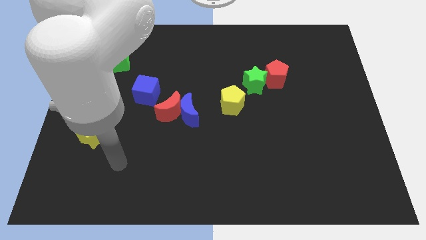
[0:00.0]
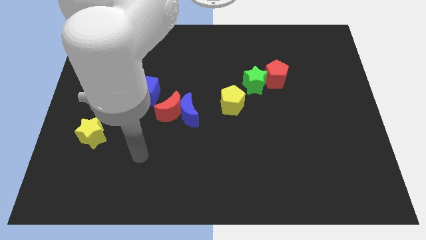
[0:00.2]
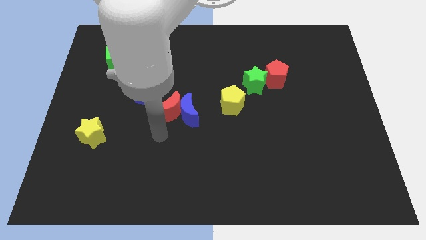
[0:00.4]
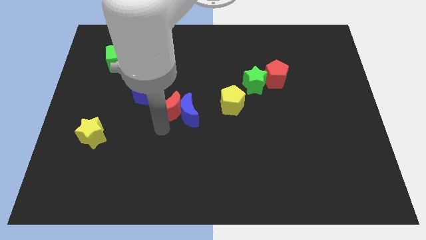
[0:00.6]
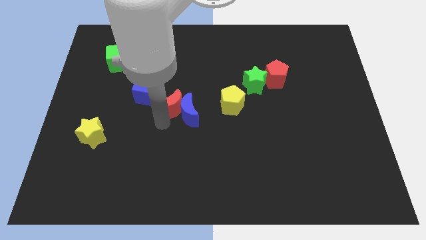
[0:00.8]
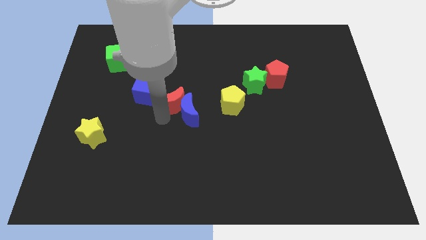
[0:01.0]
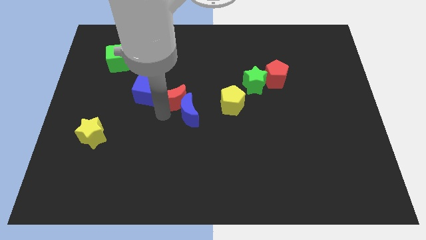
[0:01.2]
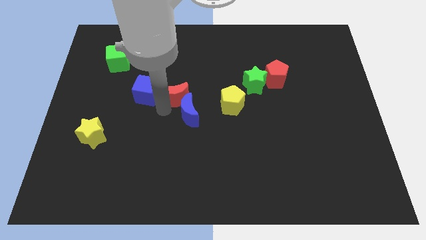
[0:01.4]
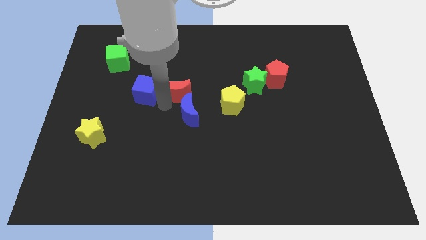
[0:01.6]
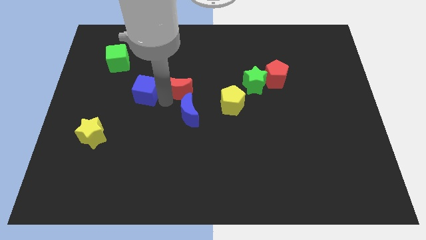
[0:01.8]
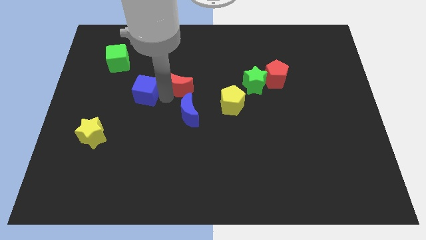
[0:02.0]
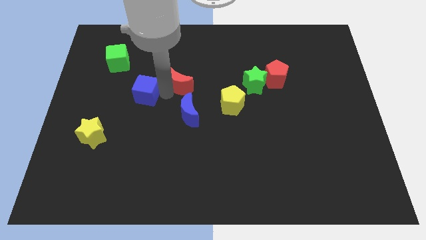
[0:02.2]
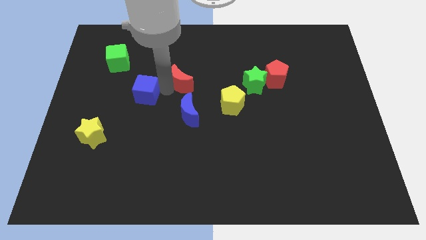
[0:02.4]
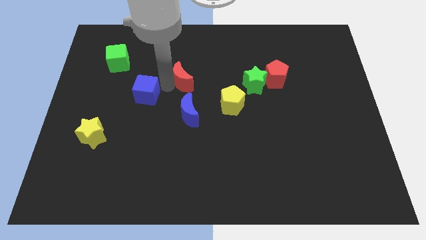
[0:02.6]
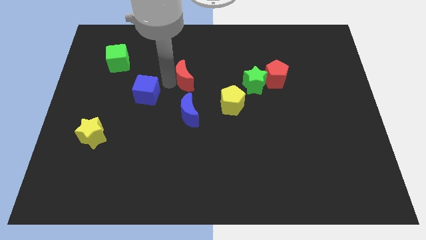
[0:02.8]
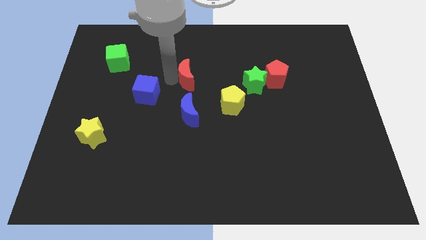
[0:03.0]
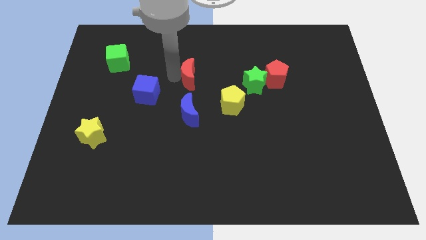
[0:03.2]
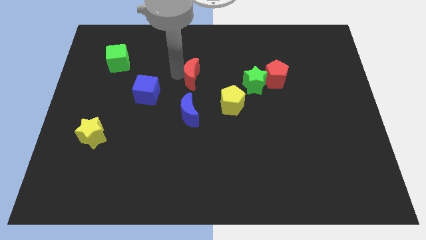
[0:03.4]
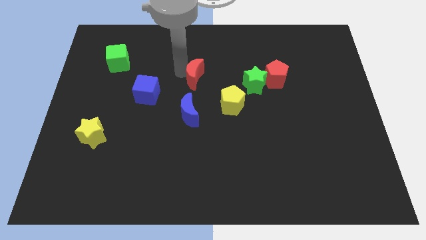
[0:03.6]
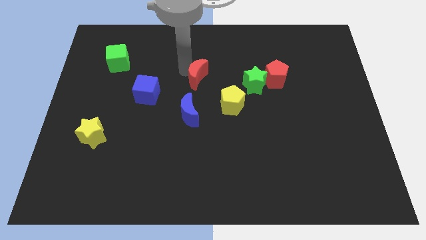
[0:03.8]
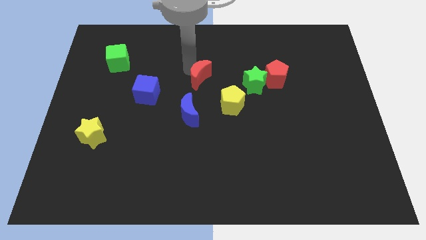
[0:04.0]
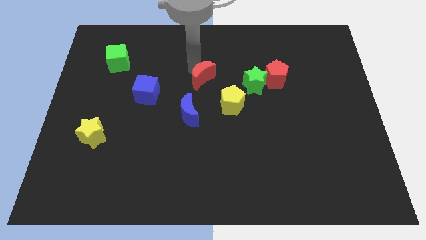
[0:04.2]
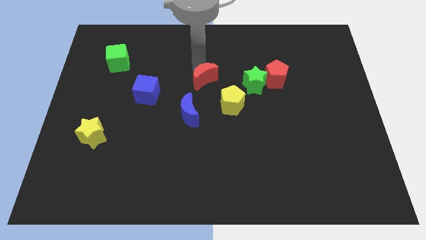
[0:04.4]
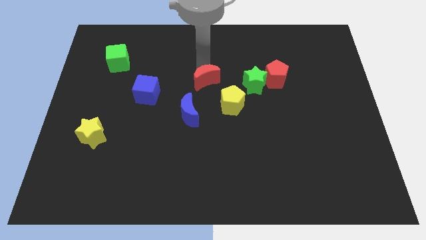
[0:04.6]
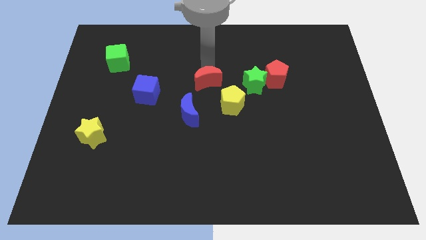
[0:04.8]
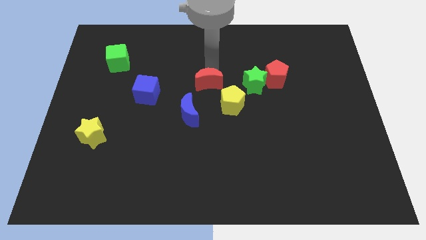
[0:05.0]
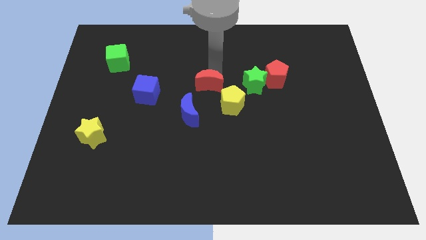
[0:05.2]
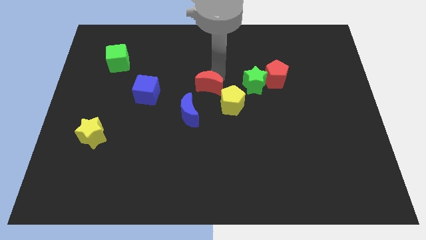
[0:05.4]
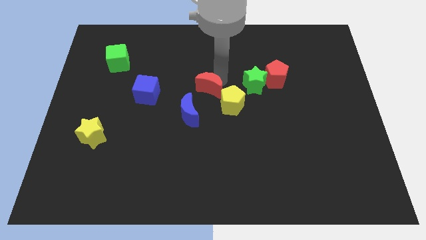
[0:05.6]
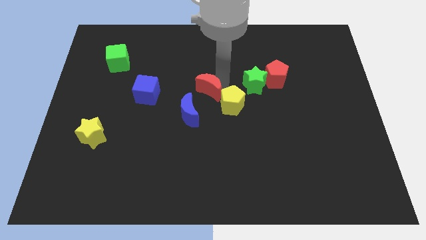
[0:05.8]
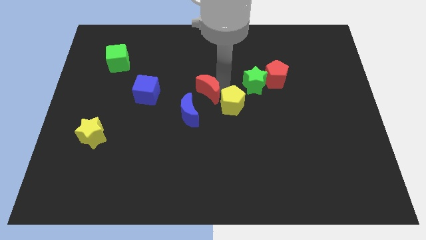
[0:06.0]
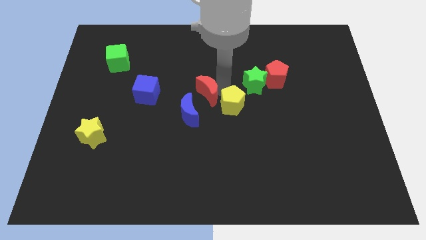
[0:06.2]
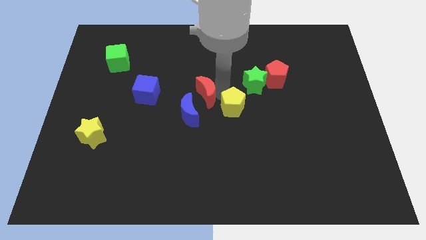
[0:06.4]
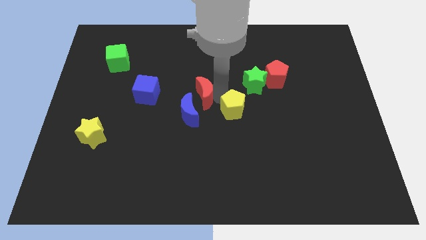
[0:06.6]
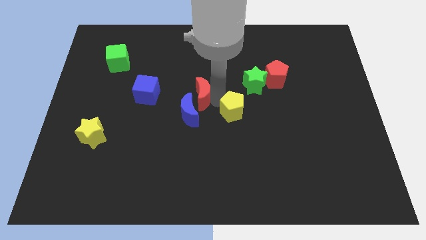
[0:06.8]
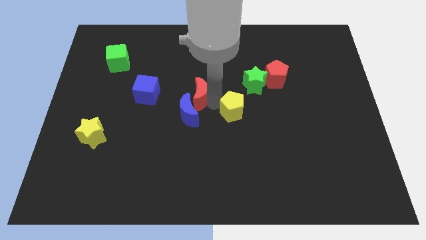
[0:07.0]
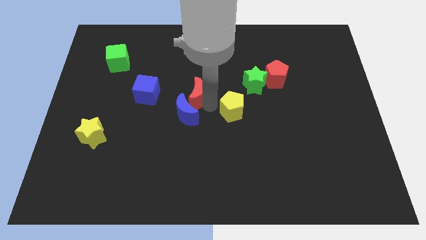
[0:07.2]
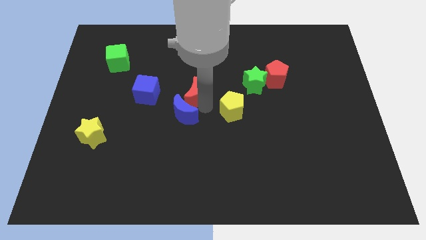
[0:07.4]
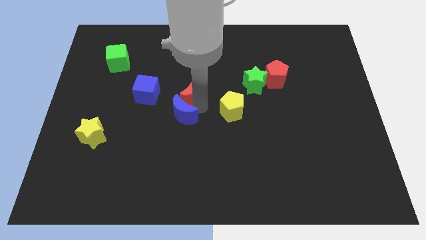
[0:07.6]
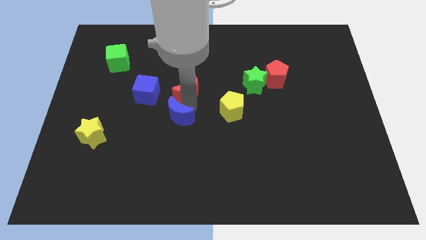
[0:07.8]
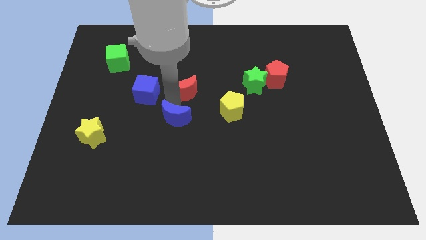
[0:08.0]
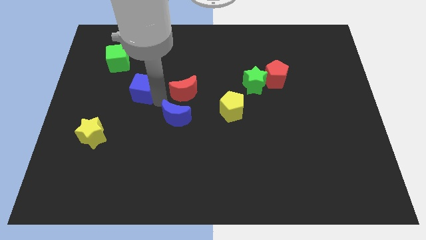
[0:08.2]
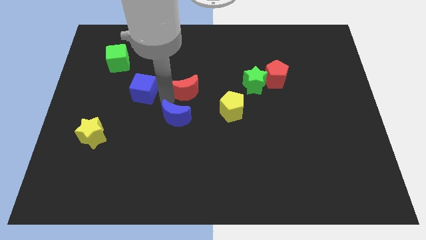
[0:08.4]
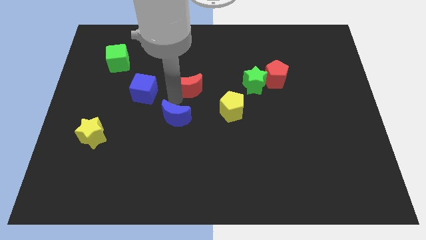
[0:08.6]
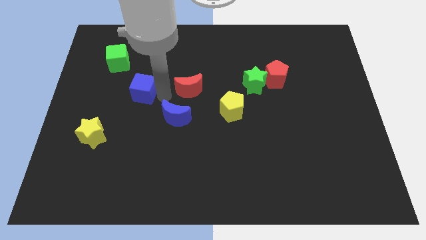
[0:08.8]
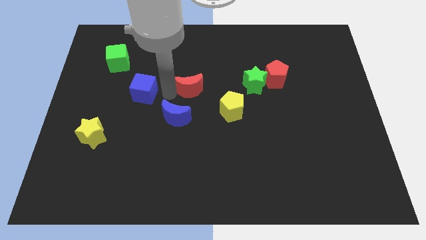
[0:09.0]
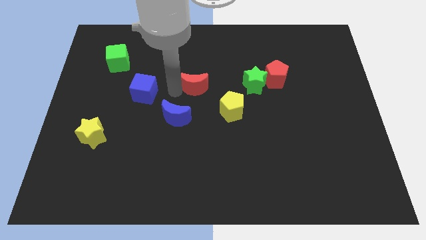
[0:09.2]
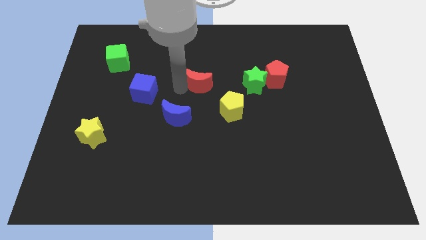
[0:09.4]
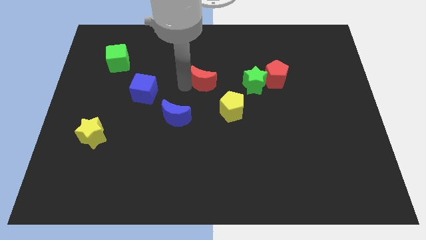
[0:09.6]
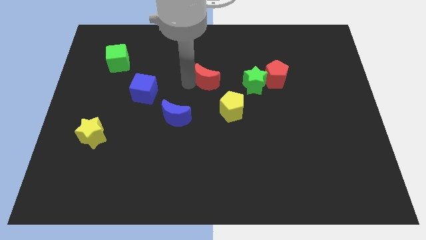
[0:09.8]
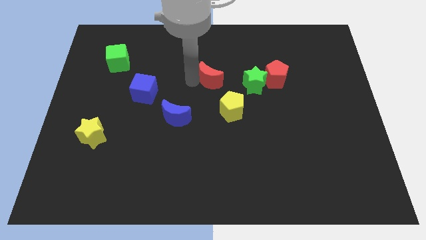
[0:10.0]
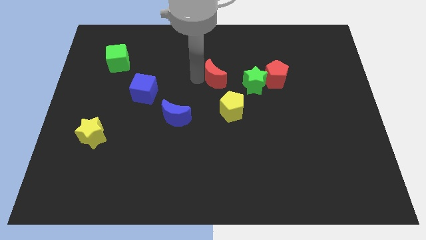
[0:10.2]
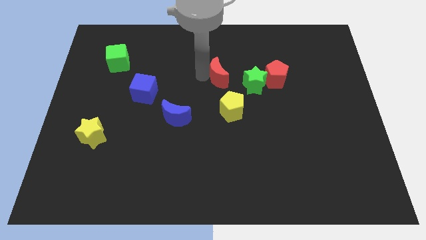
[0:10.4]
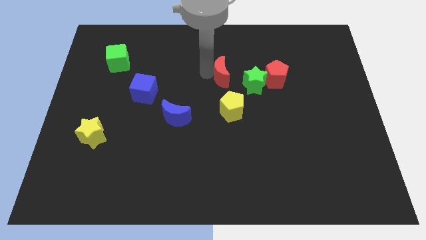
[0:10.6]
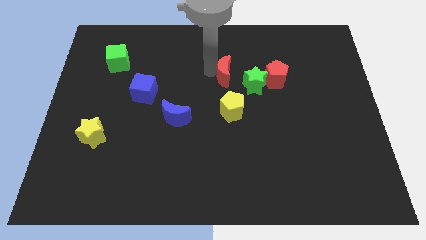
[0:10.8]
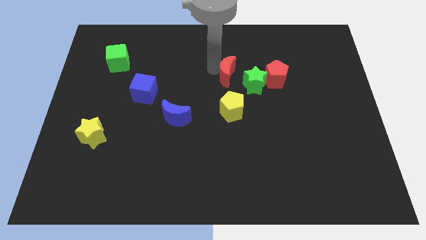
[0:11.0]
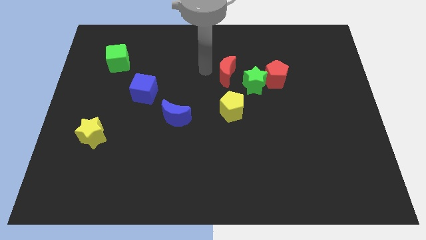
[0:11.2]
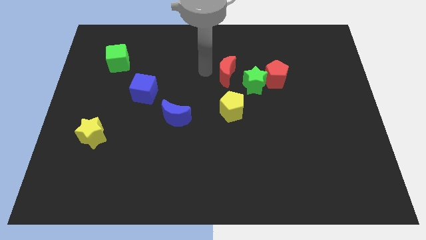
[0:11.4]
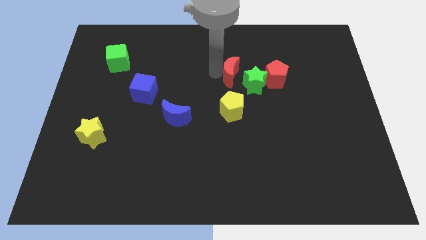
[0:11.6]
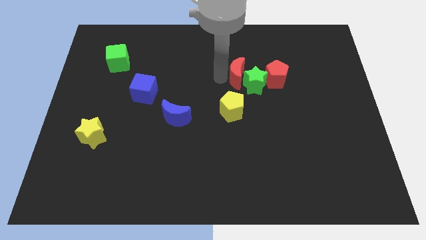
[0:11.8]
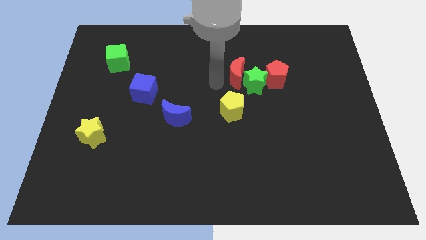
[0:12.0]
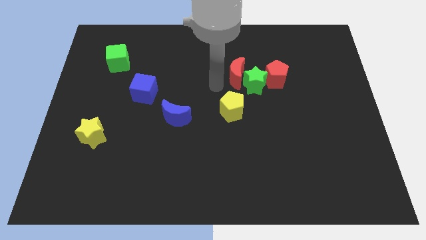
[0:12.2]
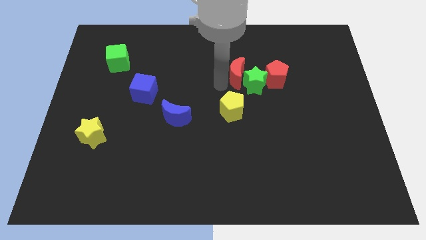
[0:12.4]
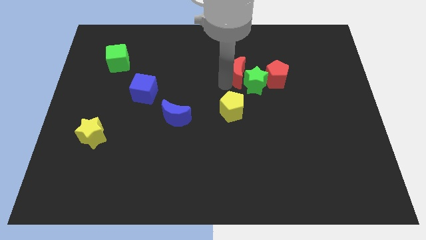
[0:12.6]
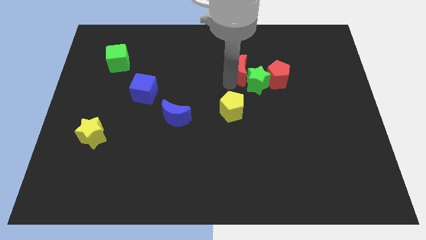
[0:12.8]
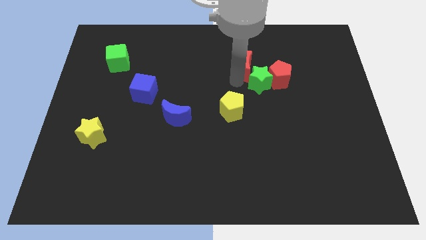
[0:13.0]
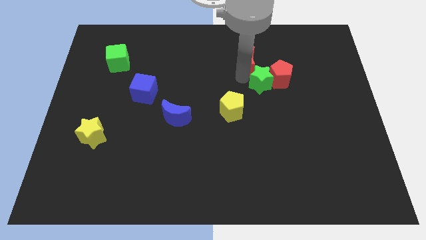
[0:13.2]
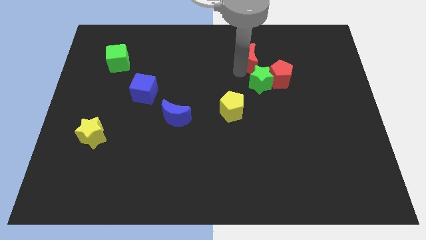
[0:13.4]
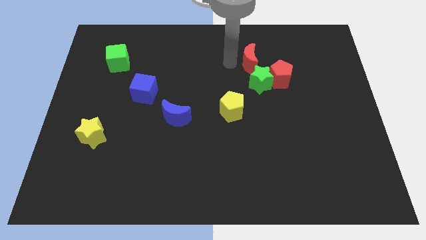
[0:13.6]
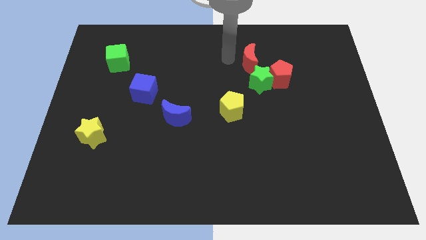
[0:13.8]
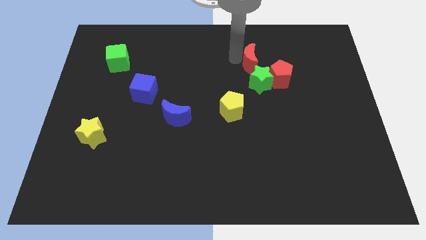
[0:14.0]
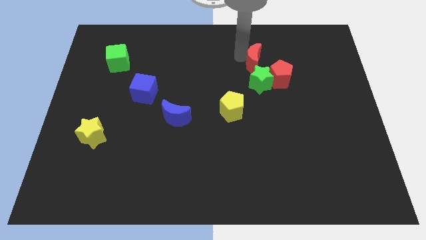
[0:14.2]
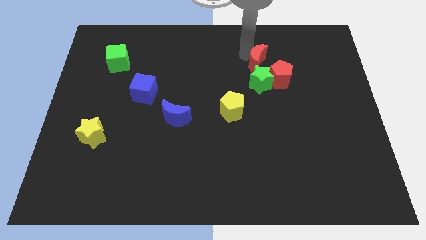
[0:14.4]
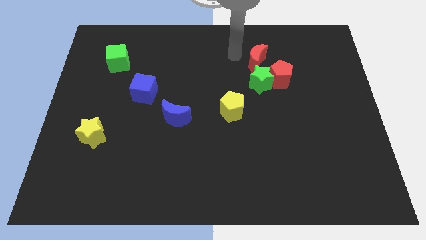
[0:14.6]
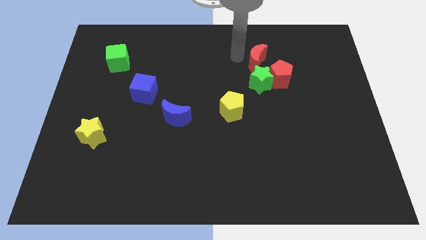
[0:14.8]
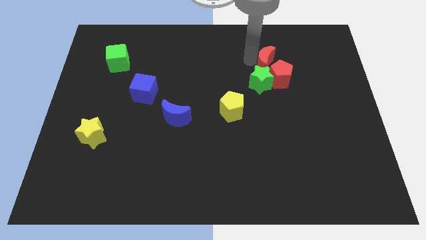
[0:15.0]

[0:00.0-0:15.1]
move the red moon to the top right of the green star

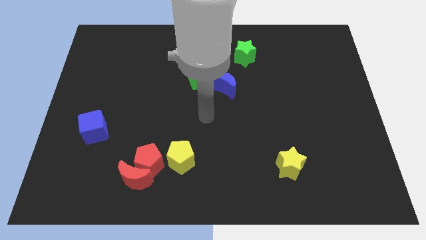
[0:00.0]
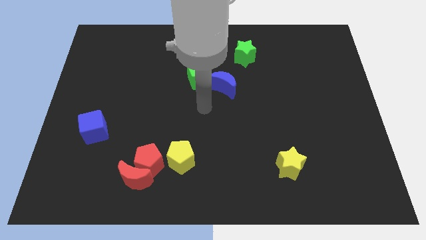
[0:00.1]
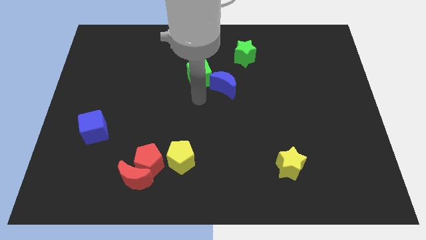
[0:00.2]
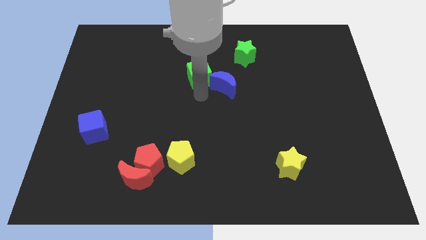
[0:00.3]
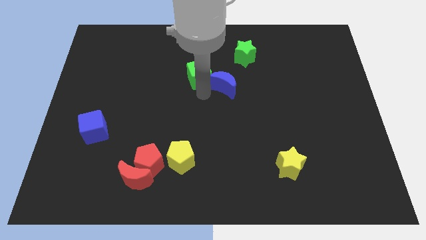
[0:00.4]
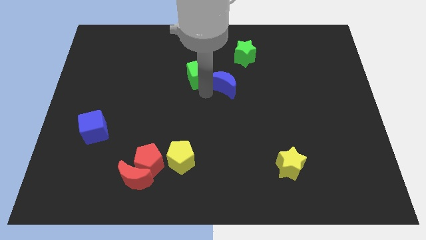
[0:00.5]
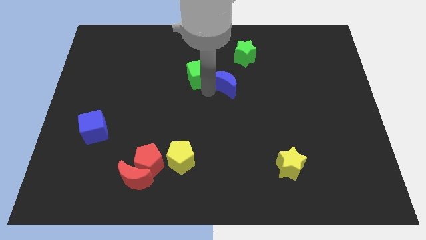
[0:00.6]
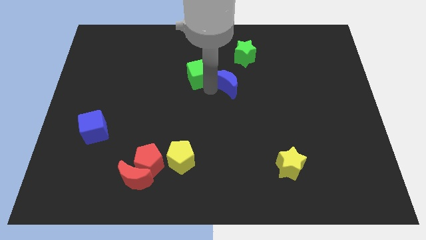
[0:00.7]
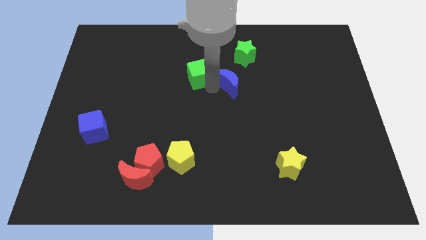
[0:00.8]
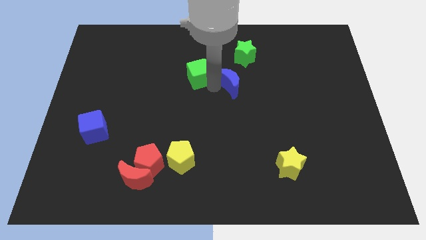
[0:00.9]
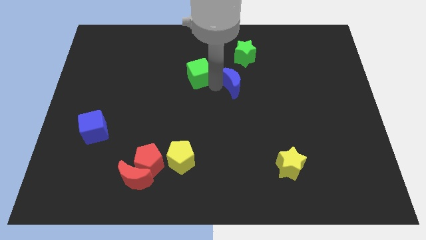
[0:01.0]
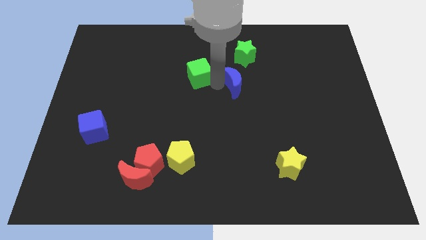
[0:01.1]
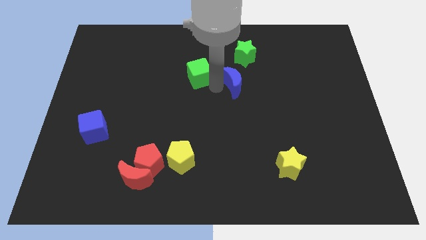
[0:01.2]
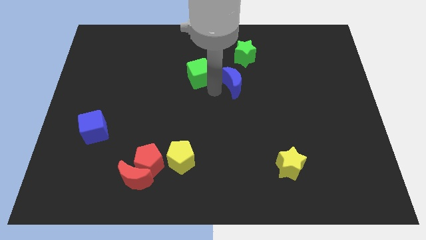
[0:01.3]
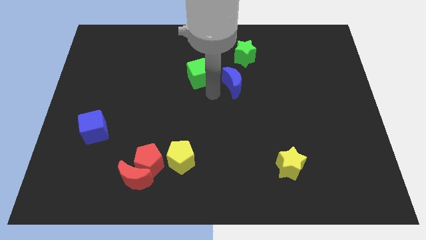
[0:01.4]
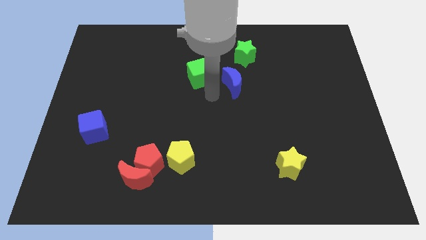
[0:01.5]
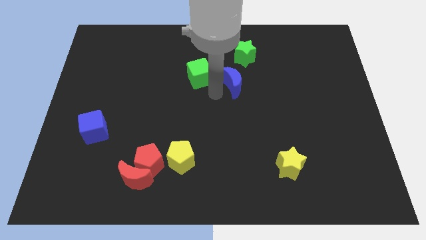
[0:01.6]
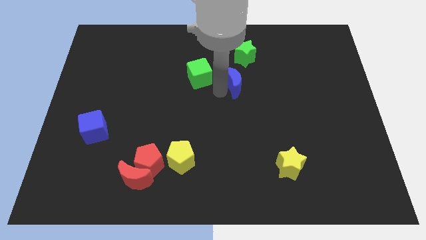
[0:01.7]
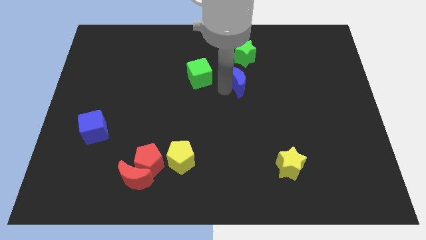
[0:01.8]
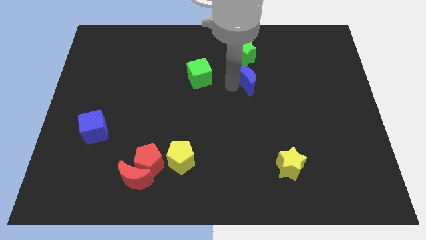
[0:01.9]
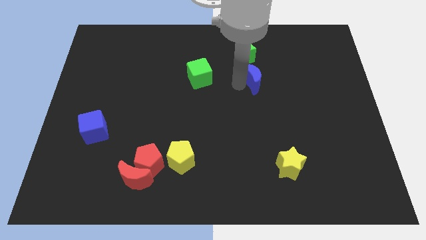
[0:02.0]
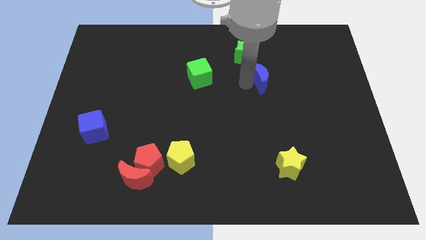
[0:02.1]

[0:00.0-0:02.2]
put the blue moon to the bottom right side of the green star
